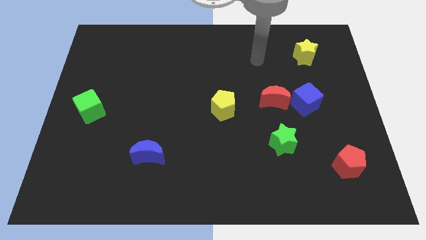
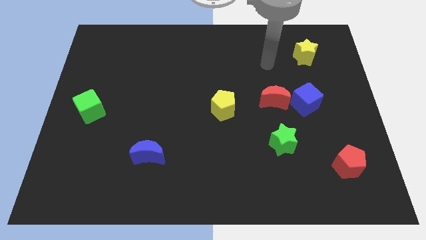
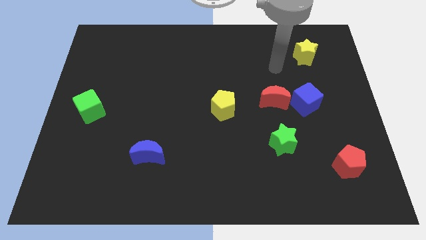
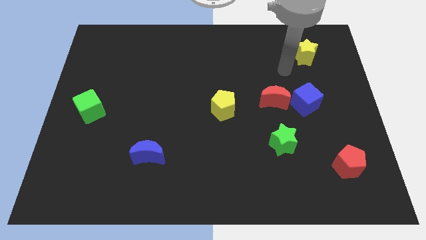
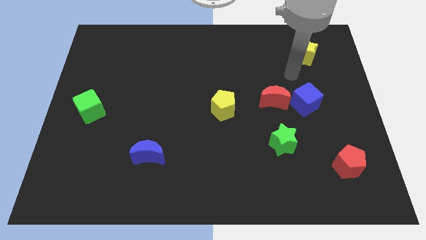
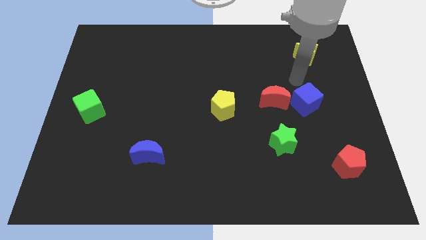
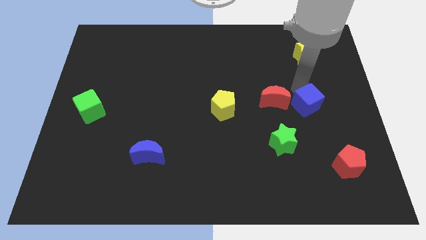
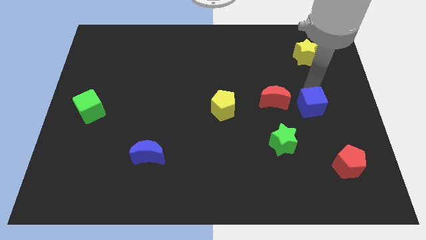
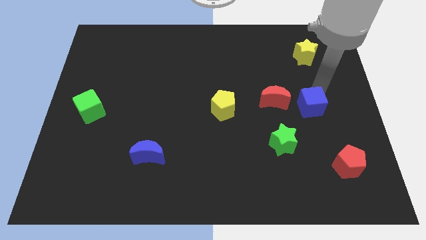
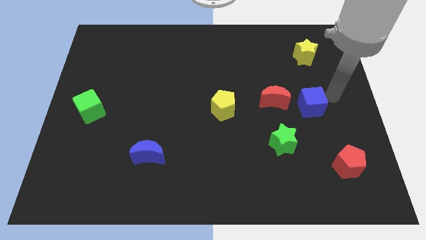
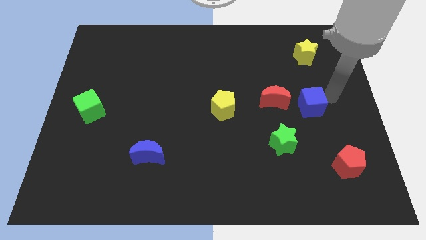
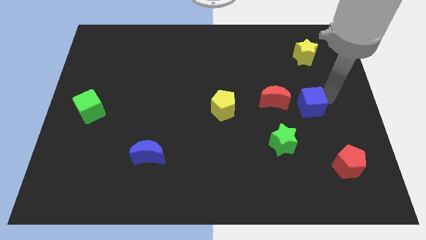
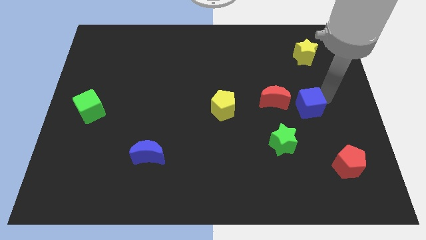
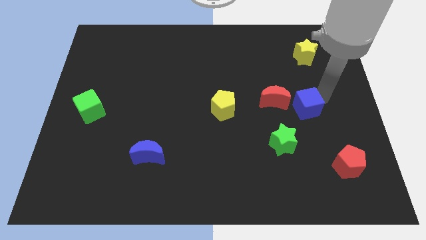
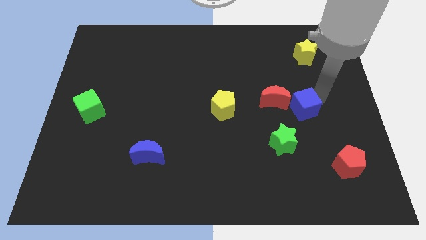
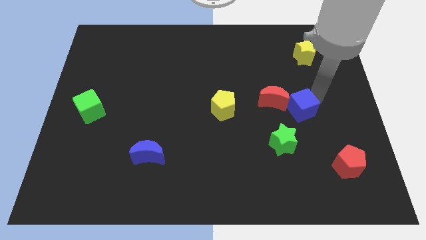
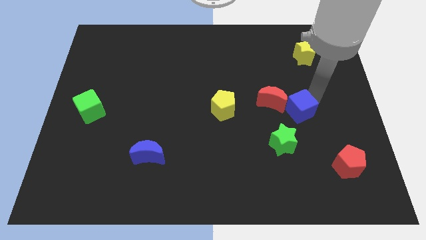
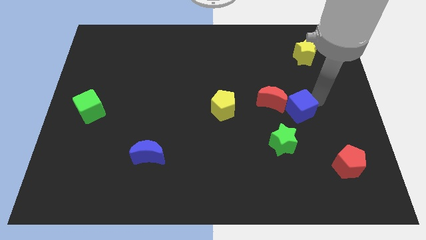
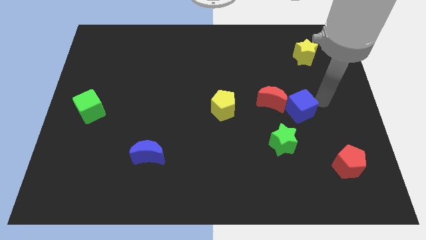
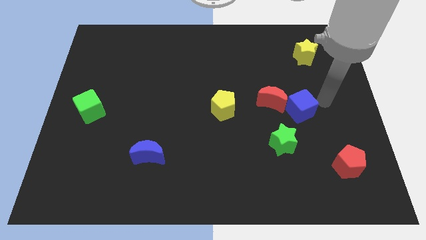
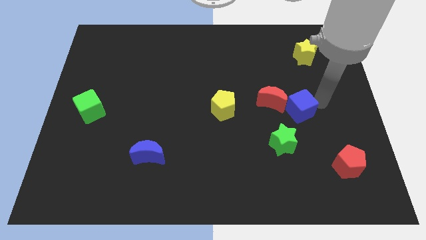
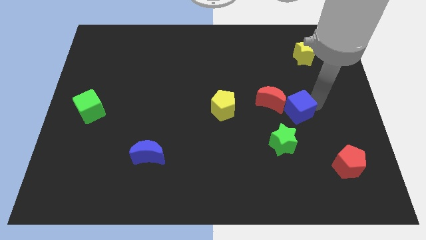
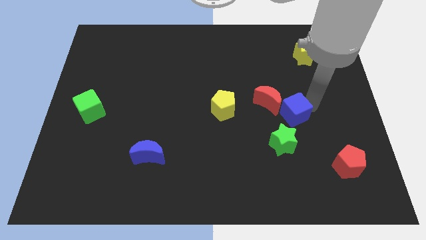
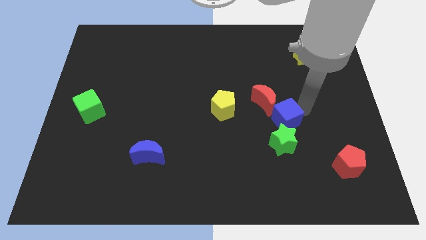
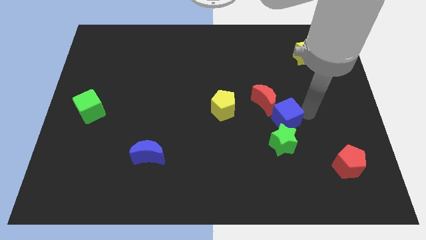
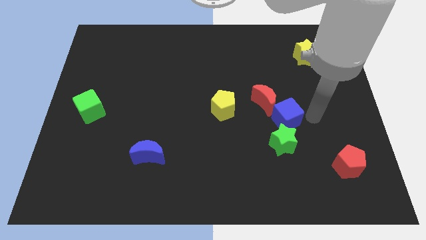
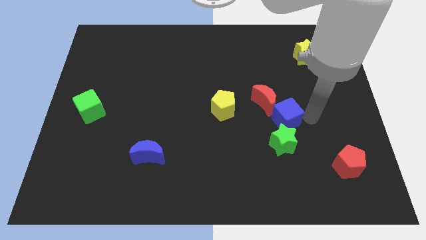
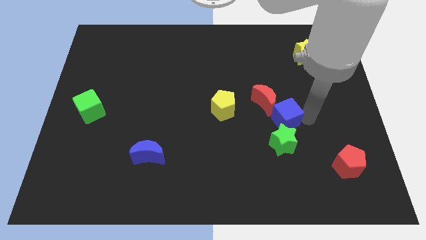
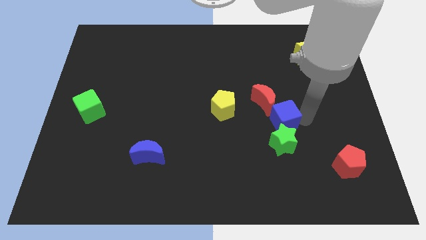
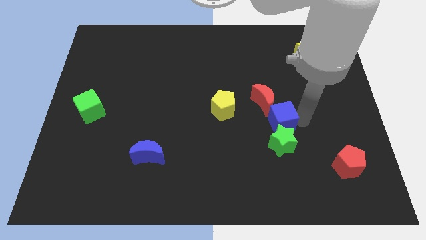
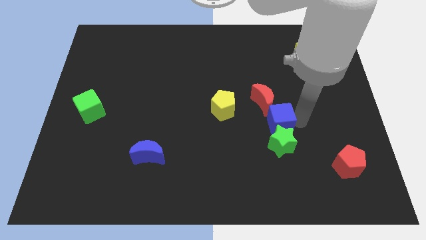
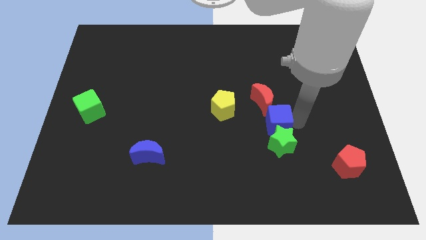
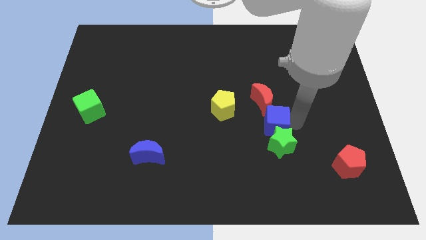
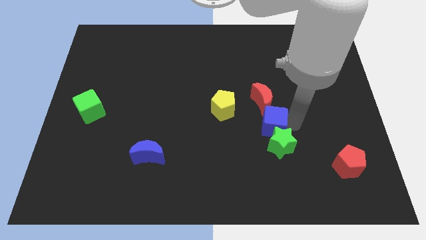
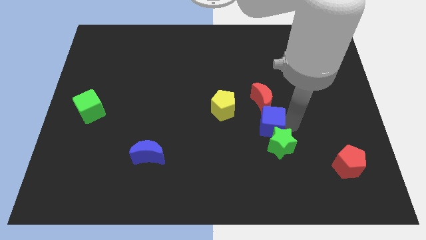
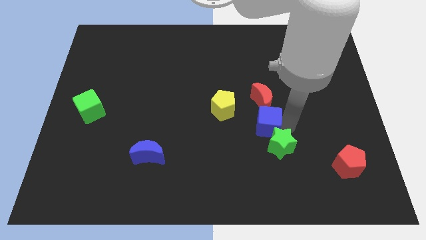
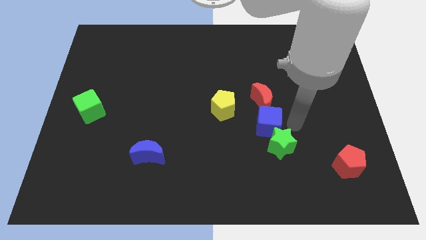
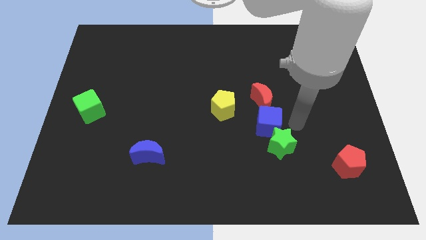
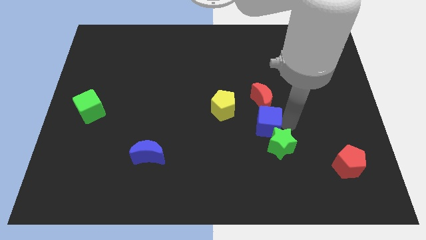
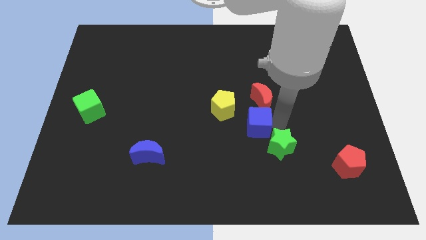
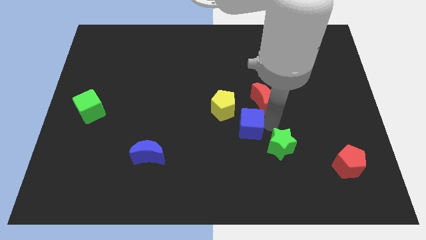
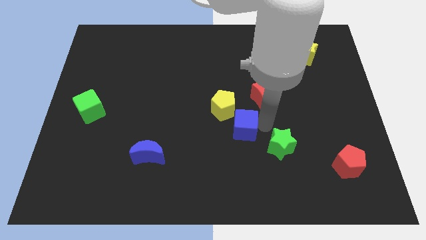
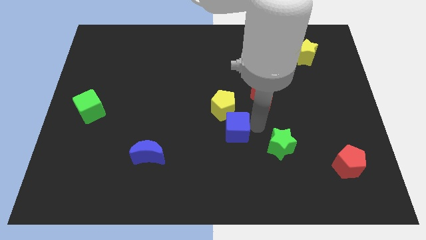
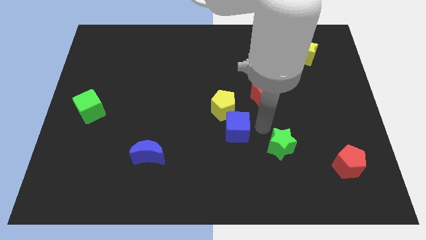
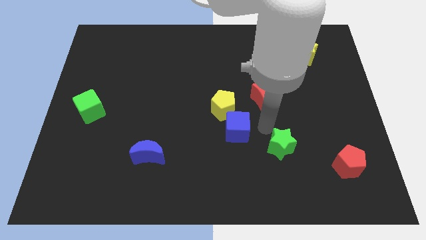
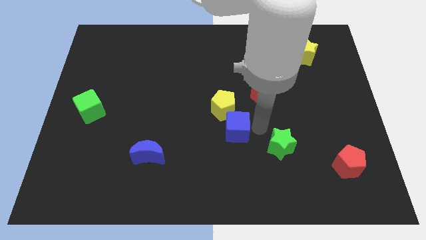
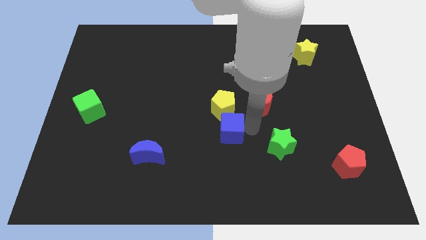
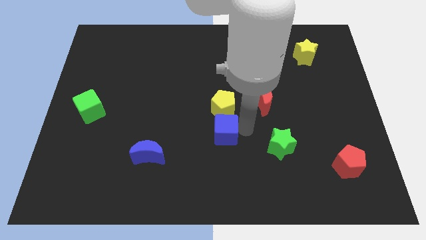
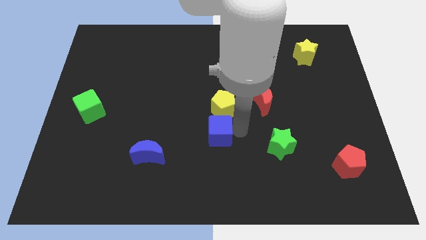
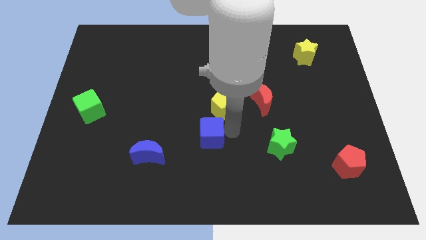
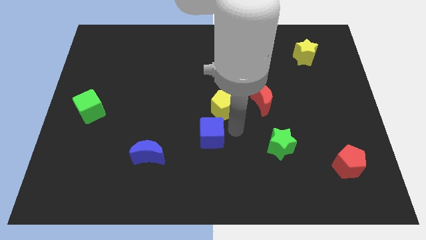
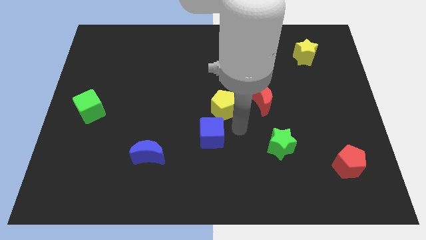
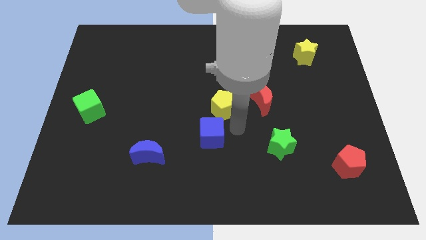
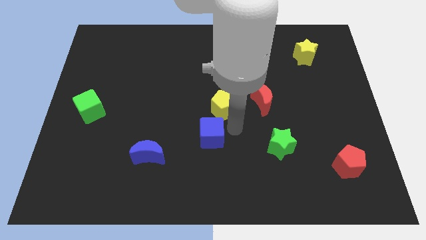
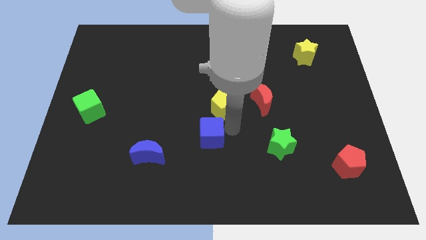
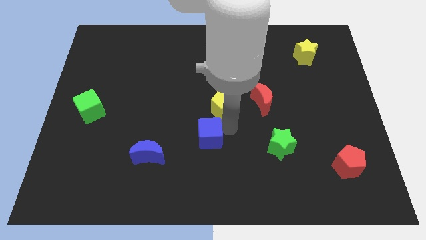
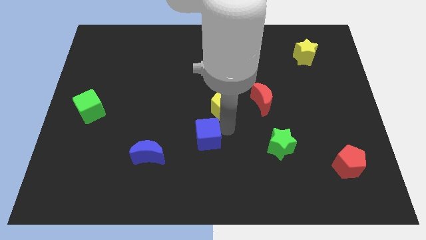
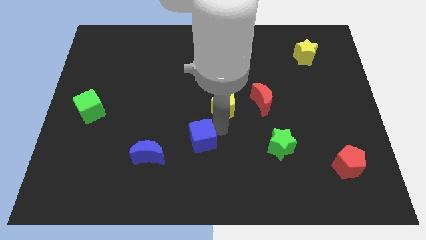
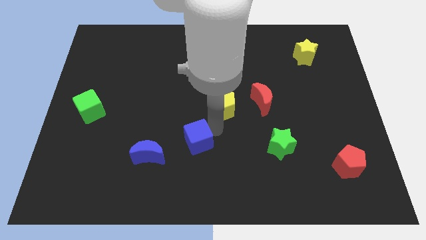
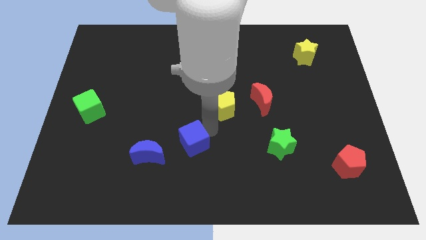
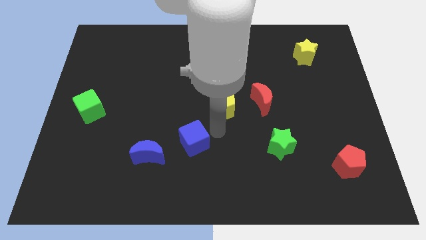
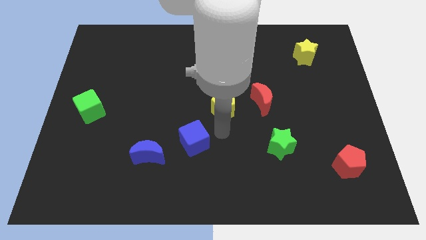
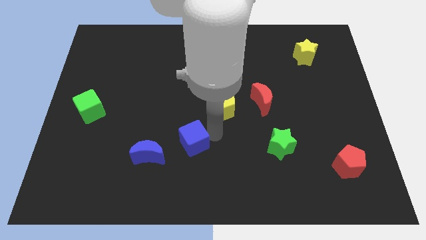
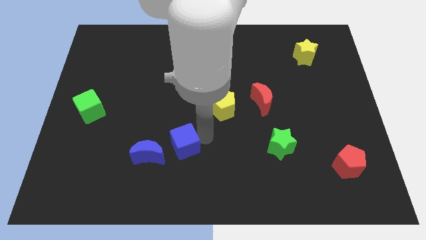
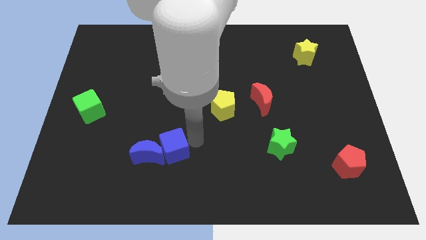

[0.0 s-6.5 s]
slide the blue cube towards the blue moon

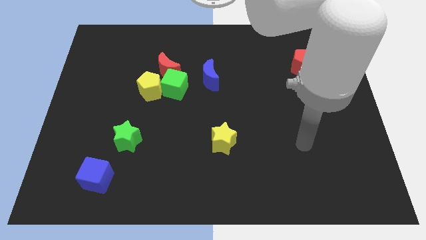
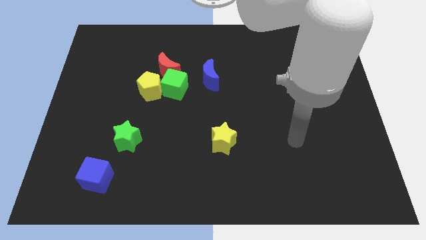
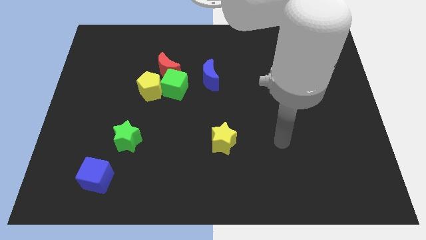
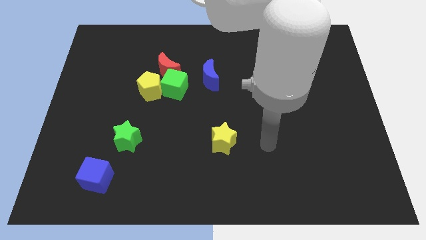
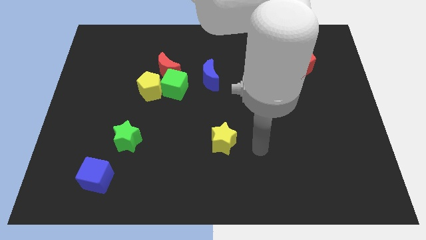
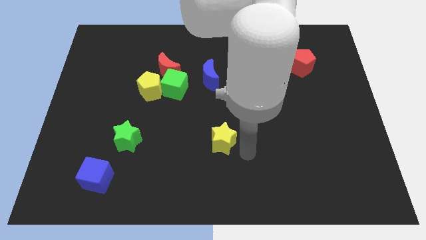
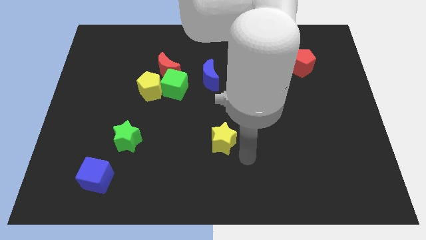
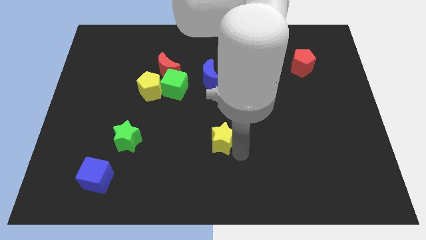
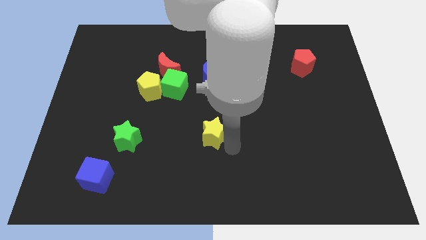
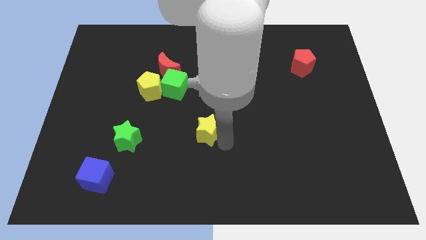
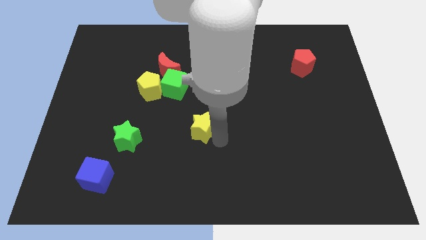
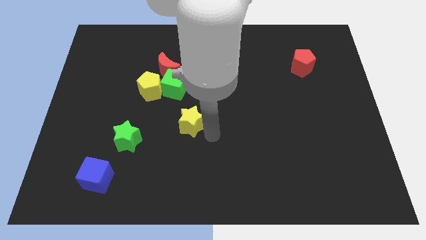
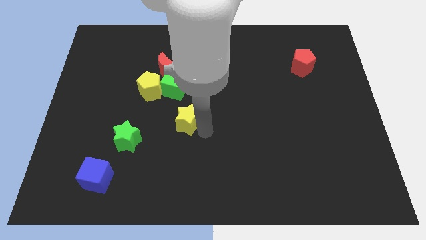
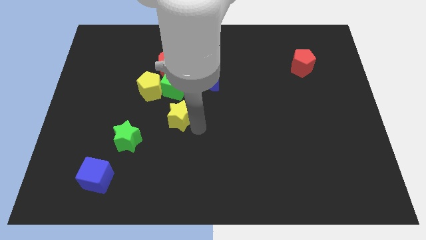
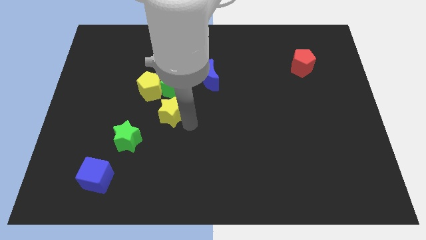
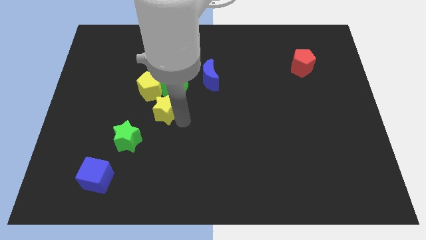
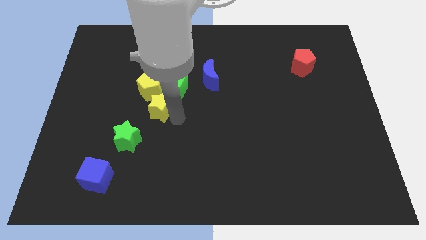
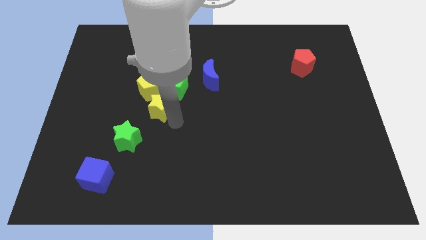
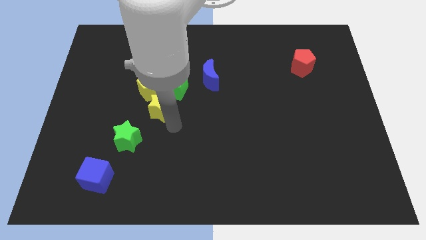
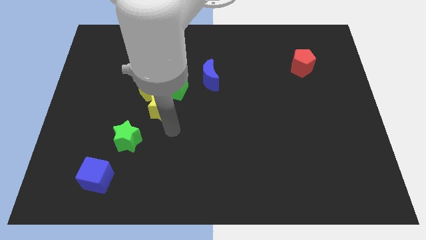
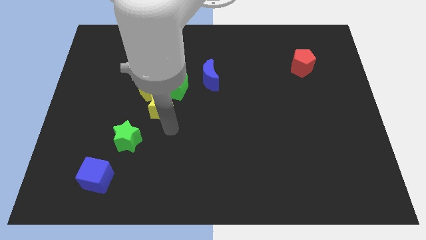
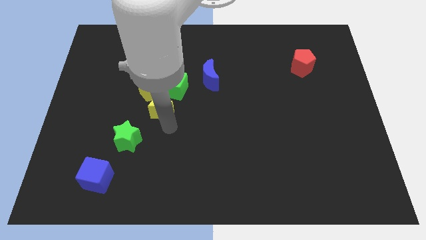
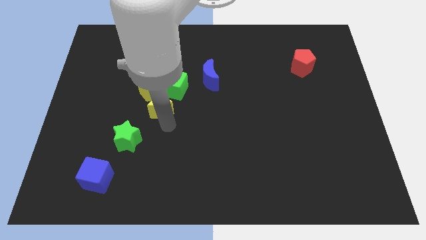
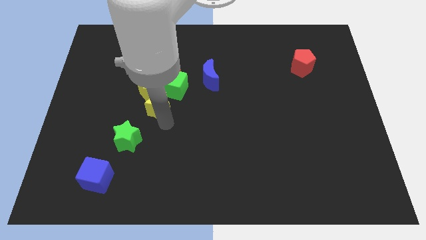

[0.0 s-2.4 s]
slide the yellow star next to the yellow pentagon
